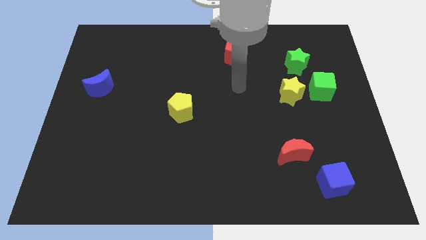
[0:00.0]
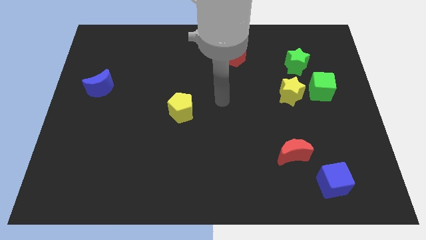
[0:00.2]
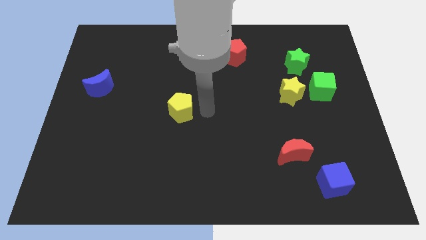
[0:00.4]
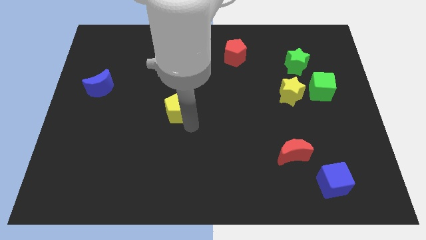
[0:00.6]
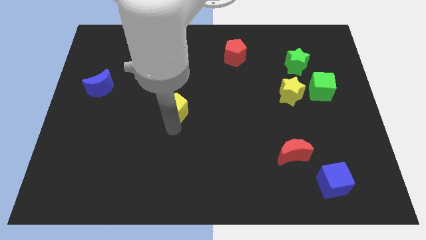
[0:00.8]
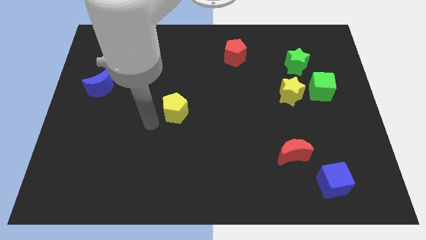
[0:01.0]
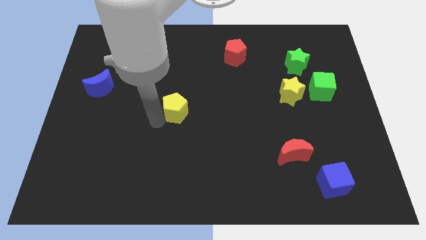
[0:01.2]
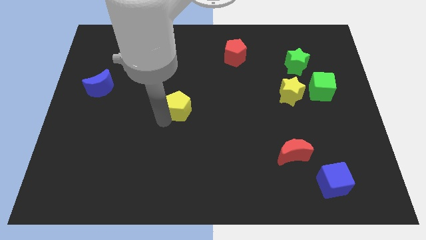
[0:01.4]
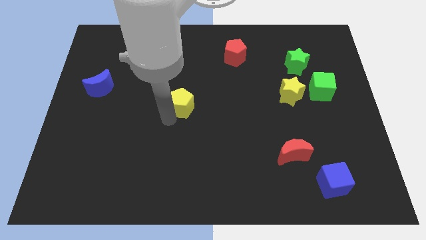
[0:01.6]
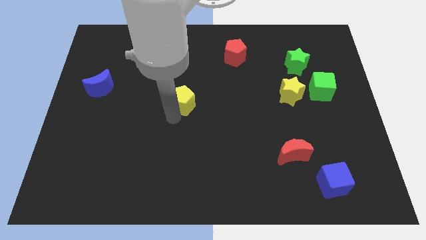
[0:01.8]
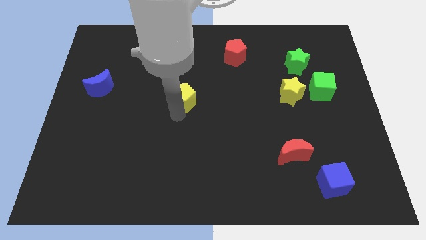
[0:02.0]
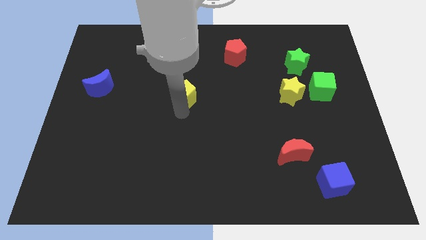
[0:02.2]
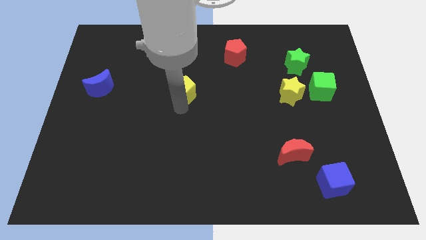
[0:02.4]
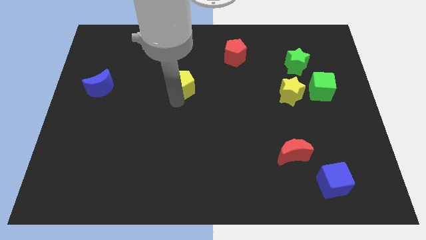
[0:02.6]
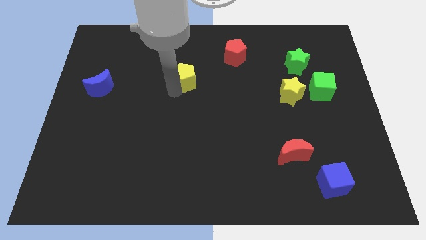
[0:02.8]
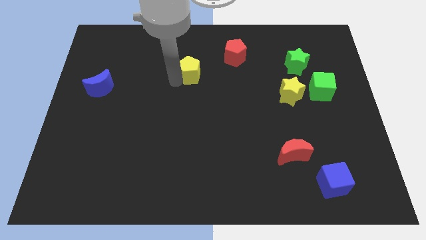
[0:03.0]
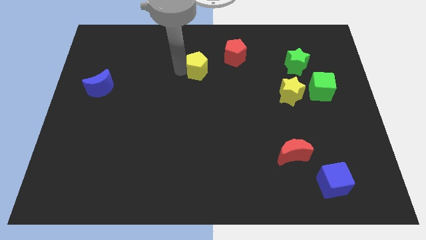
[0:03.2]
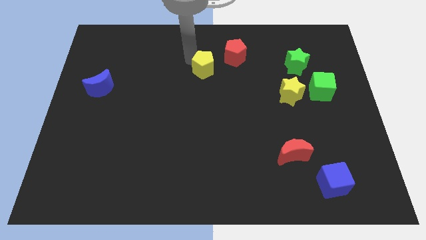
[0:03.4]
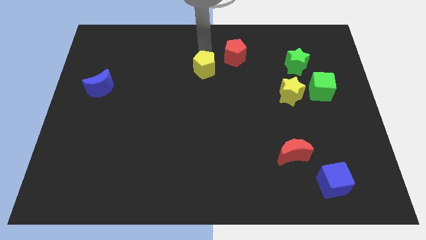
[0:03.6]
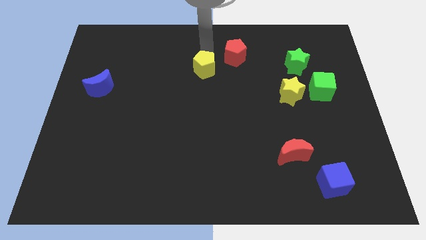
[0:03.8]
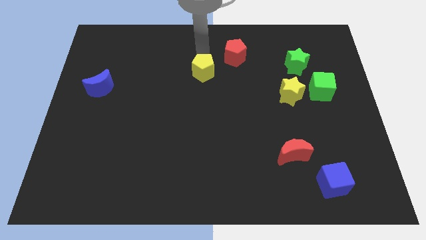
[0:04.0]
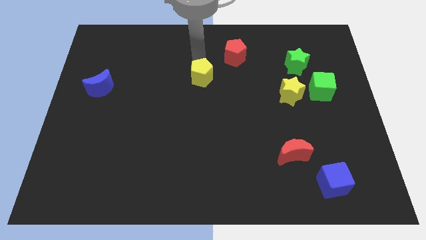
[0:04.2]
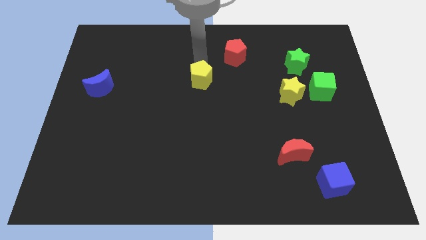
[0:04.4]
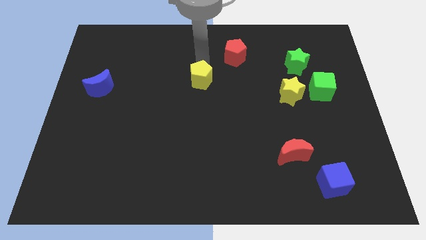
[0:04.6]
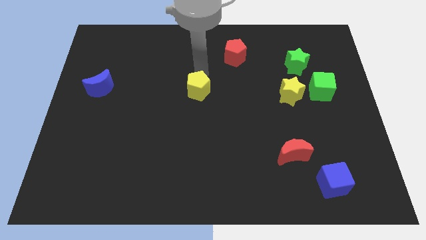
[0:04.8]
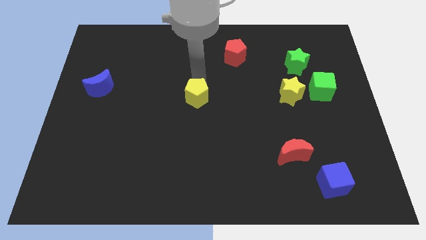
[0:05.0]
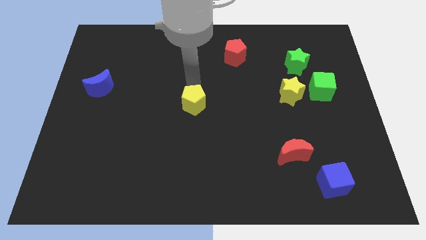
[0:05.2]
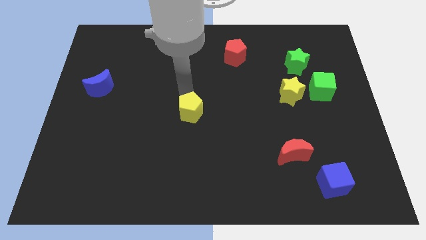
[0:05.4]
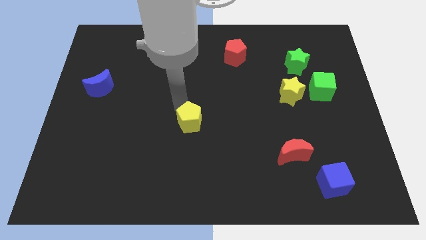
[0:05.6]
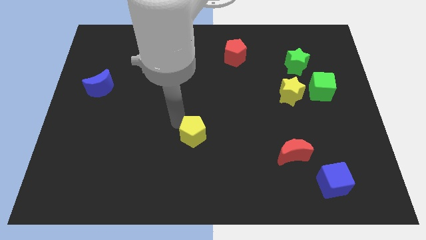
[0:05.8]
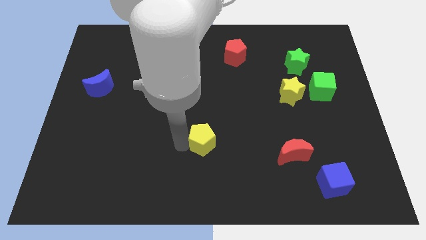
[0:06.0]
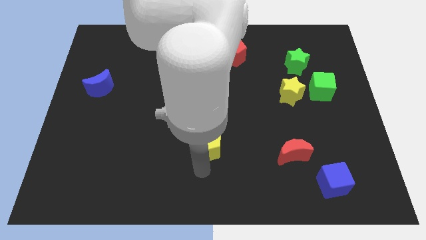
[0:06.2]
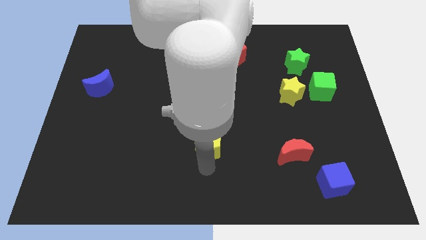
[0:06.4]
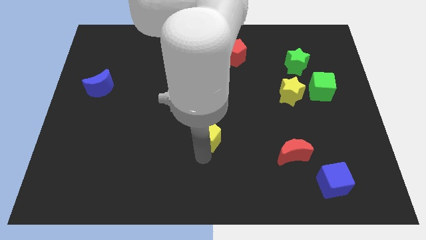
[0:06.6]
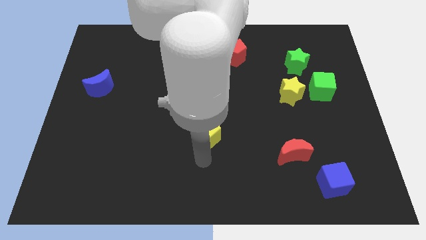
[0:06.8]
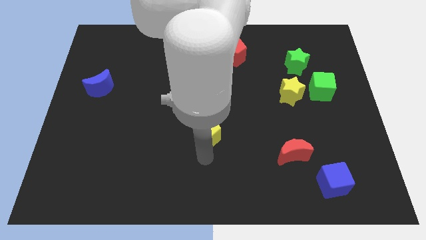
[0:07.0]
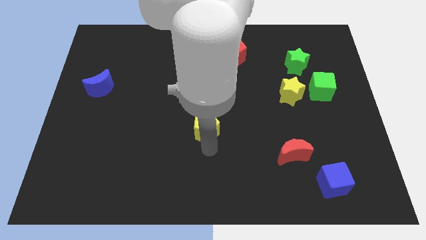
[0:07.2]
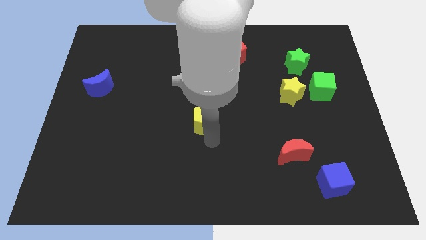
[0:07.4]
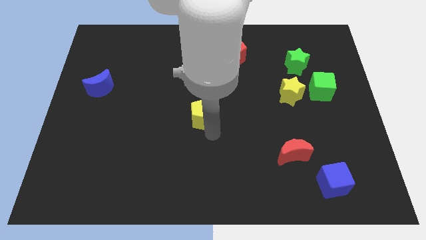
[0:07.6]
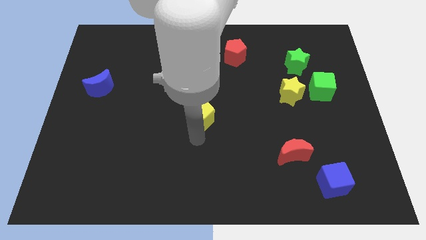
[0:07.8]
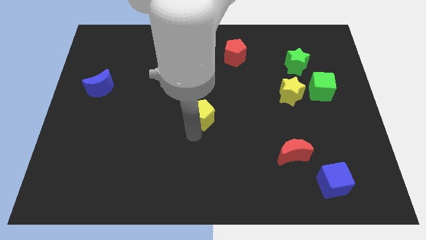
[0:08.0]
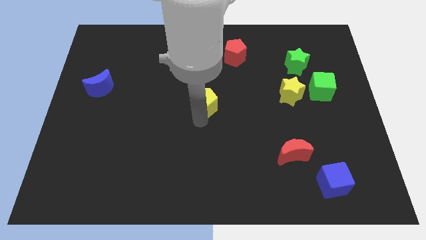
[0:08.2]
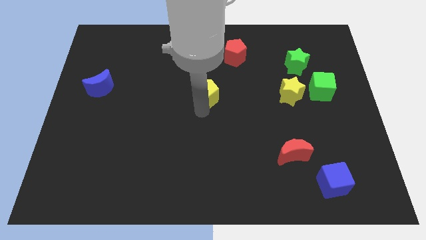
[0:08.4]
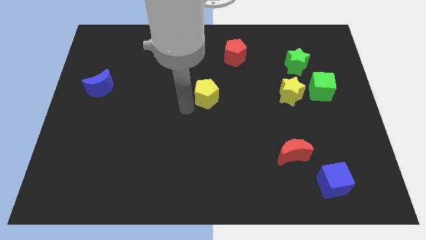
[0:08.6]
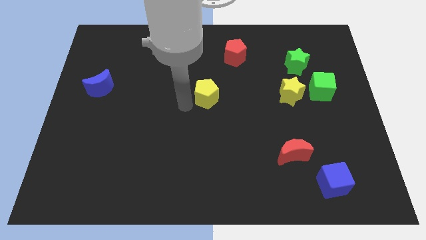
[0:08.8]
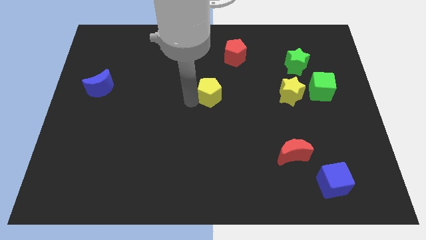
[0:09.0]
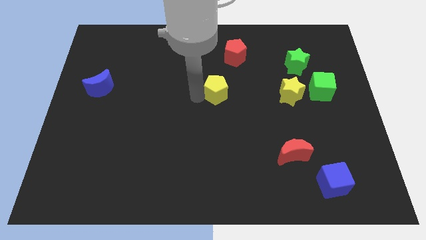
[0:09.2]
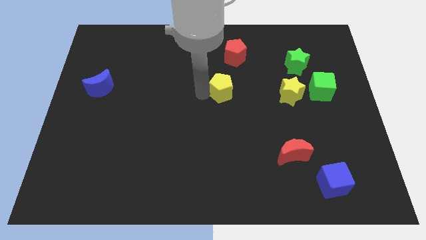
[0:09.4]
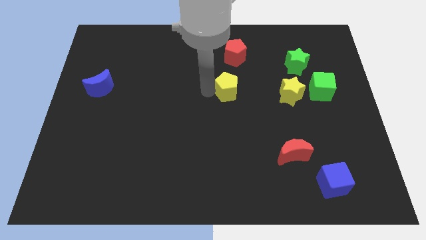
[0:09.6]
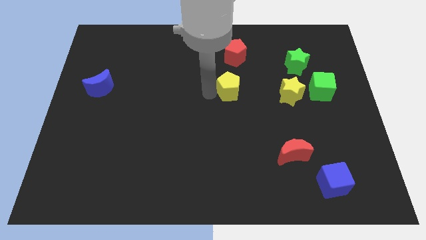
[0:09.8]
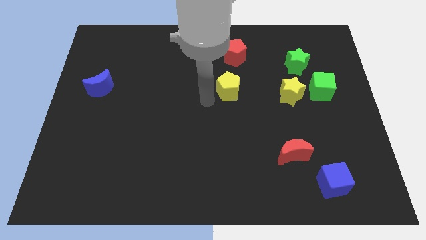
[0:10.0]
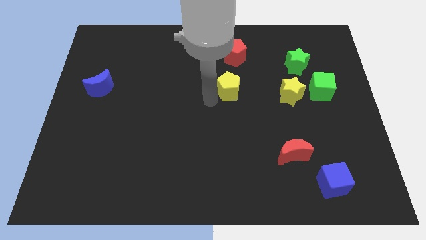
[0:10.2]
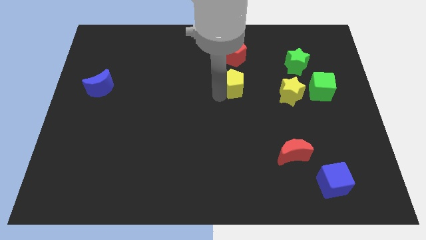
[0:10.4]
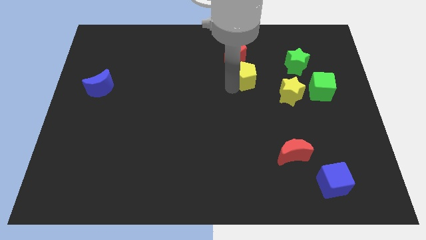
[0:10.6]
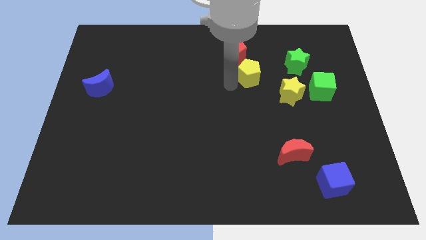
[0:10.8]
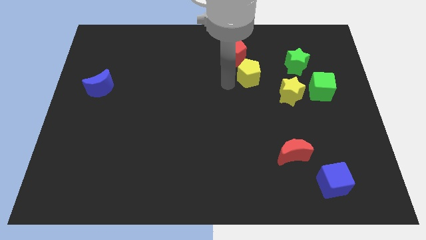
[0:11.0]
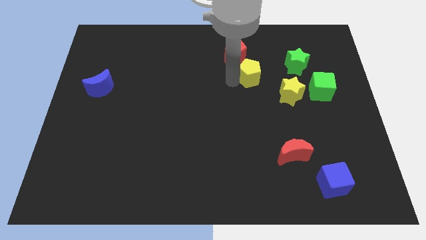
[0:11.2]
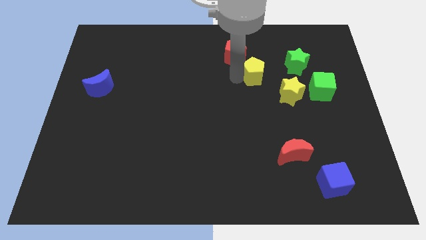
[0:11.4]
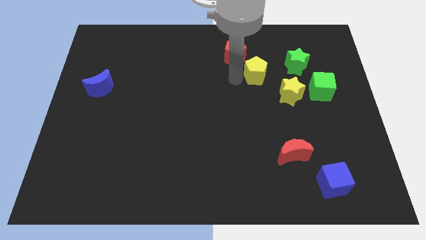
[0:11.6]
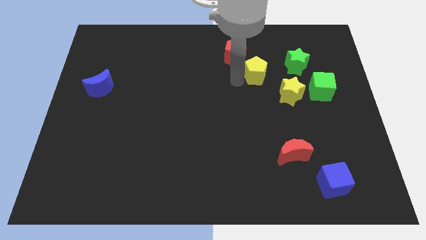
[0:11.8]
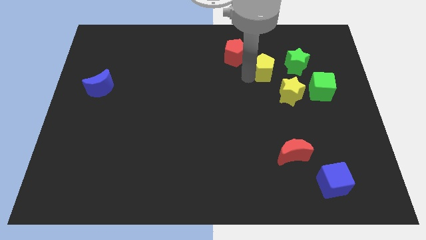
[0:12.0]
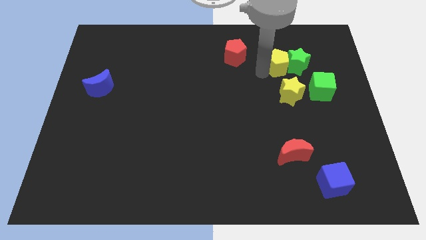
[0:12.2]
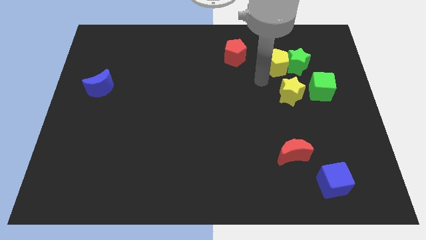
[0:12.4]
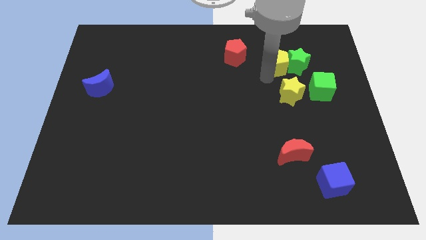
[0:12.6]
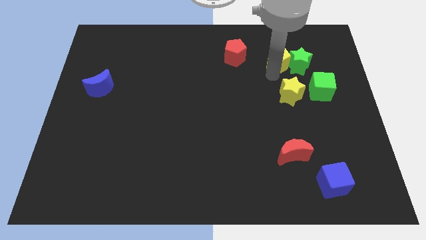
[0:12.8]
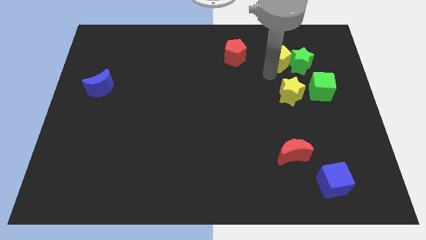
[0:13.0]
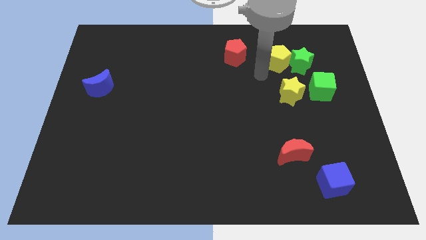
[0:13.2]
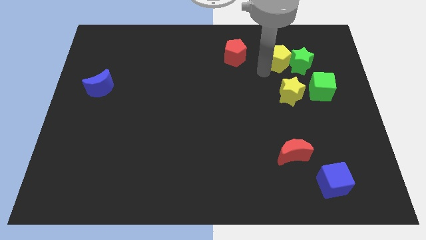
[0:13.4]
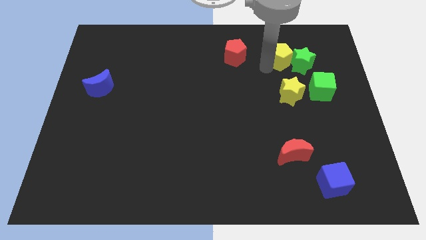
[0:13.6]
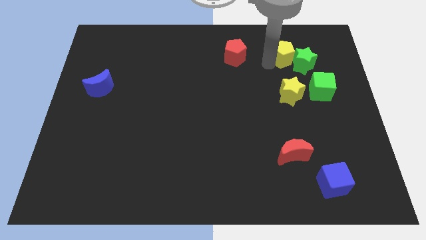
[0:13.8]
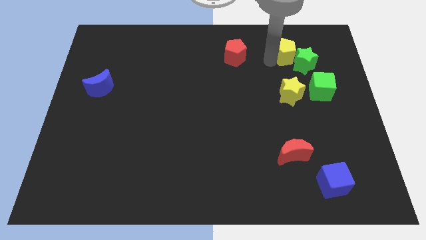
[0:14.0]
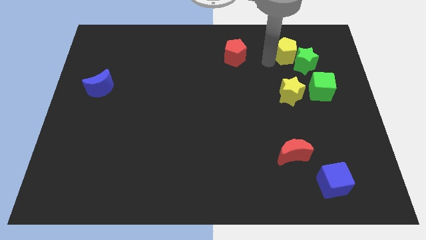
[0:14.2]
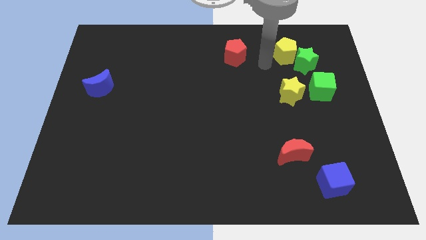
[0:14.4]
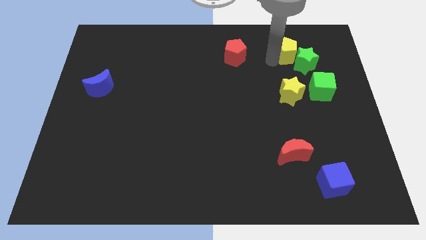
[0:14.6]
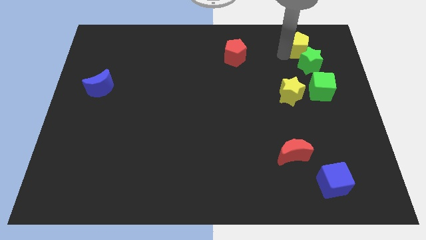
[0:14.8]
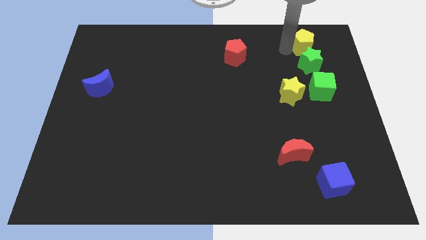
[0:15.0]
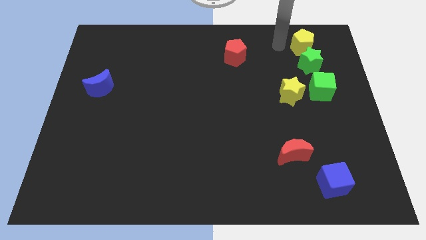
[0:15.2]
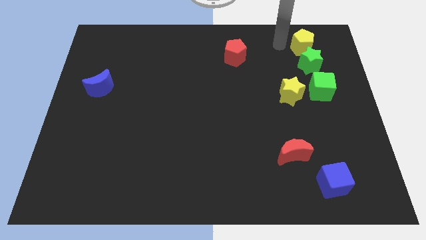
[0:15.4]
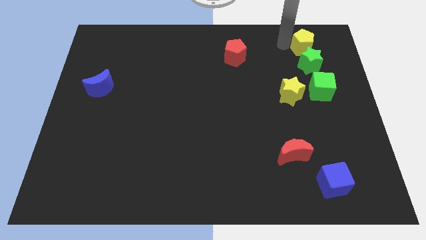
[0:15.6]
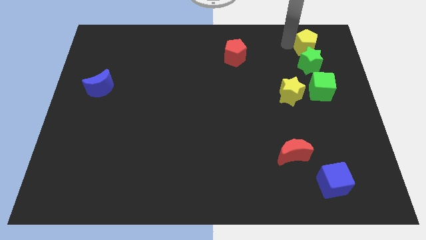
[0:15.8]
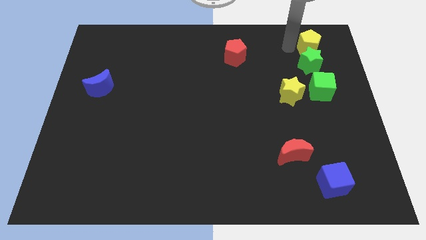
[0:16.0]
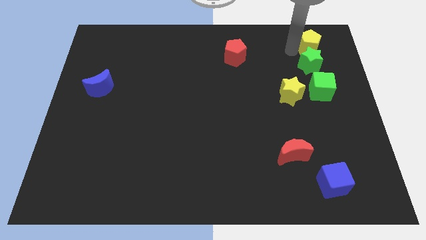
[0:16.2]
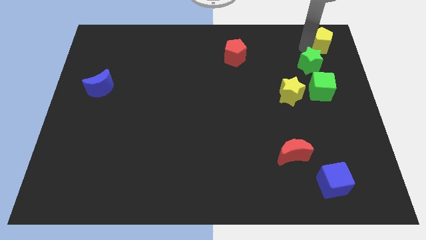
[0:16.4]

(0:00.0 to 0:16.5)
put the yellow pentagon to the top right of the board
